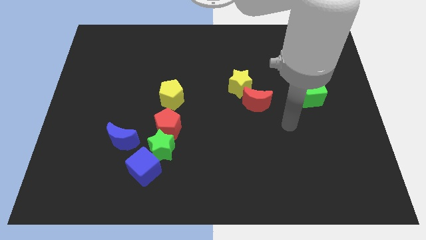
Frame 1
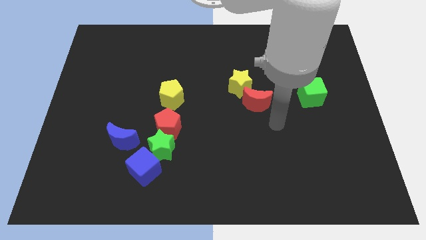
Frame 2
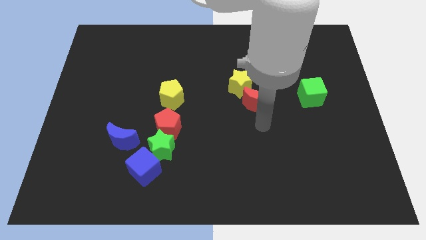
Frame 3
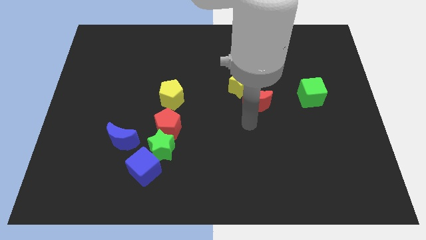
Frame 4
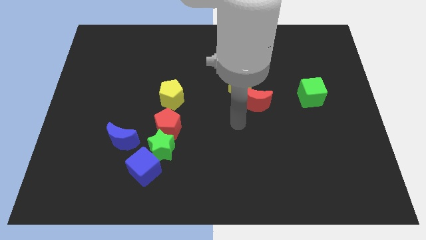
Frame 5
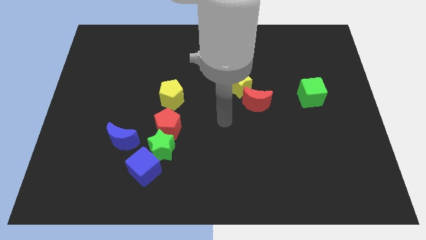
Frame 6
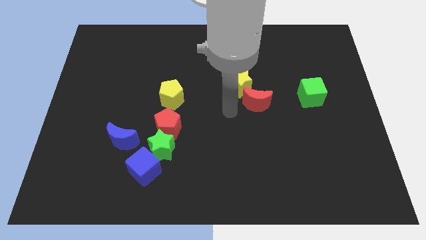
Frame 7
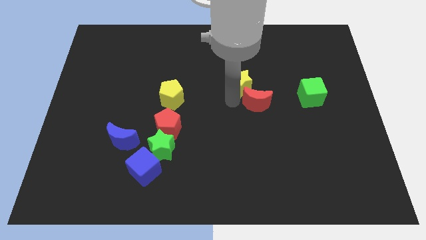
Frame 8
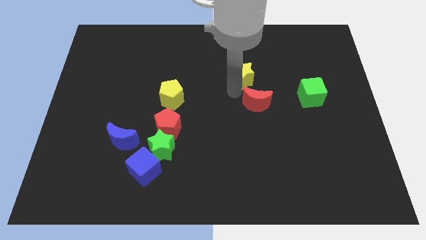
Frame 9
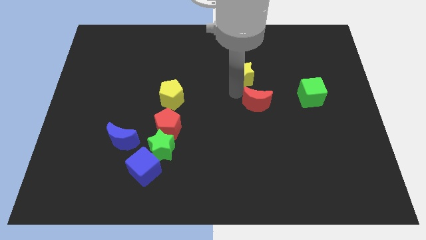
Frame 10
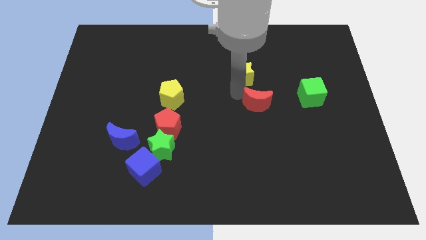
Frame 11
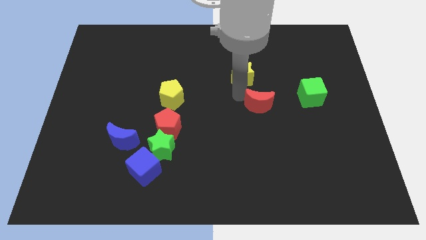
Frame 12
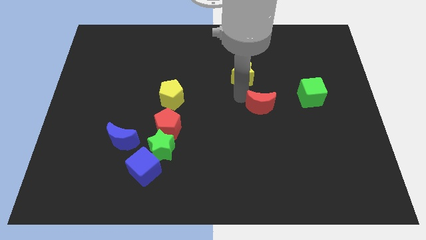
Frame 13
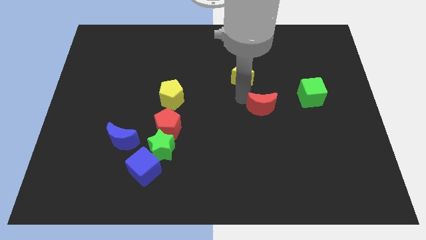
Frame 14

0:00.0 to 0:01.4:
move the red moon away from the yellow star

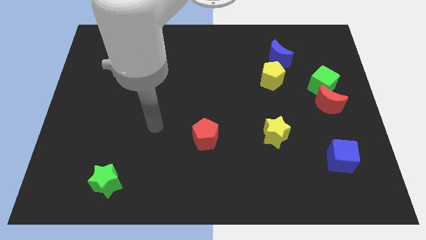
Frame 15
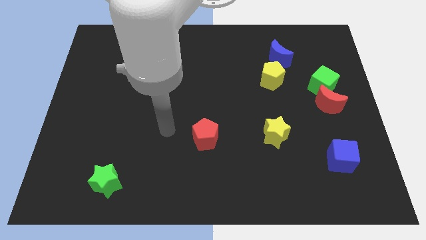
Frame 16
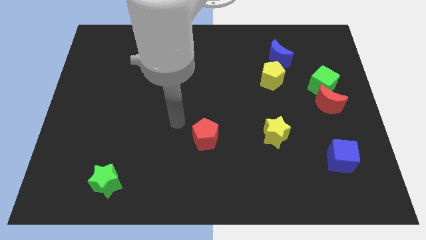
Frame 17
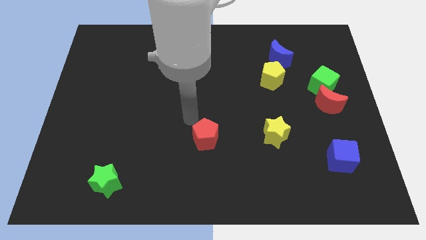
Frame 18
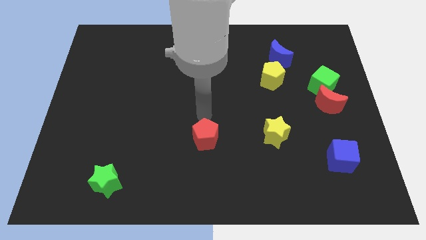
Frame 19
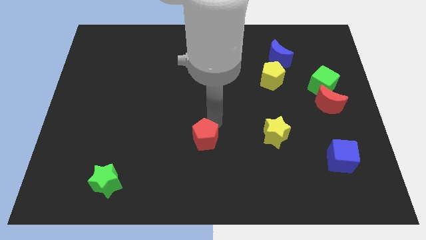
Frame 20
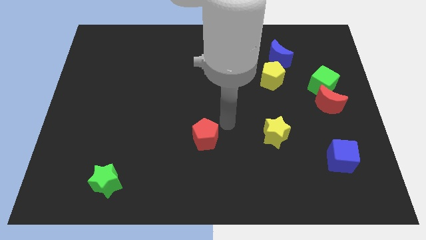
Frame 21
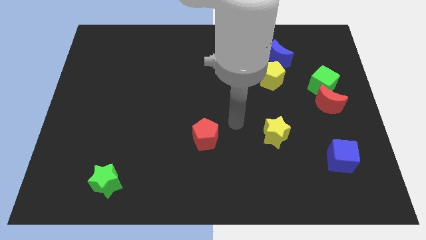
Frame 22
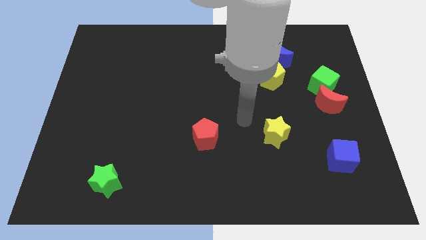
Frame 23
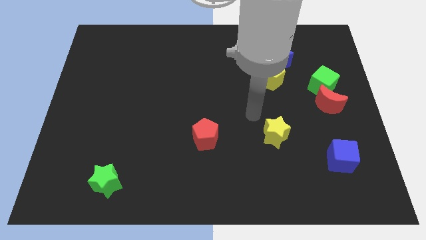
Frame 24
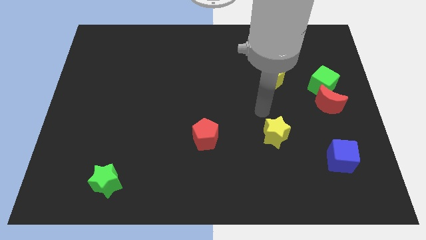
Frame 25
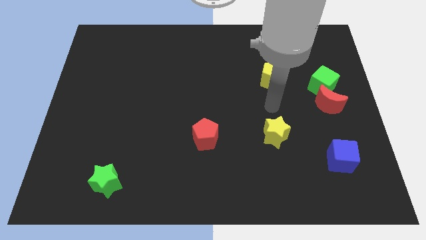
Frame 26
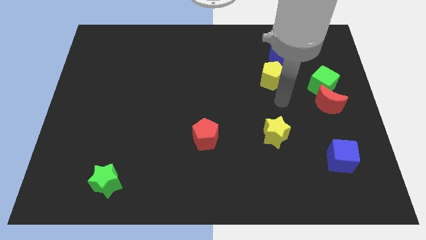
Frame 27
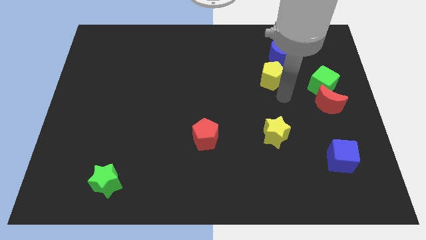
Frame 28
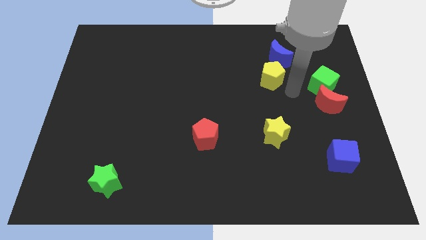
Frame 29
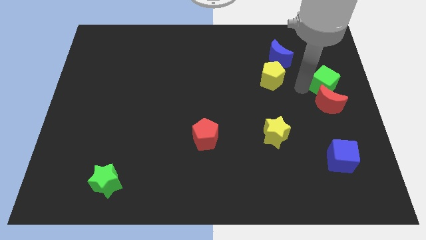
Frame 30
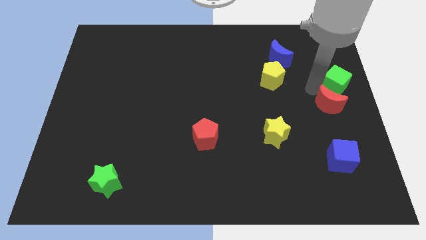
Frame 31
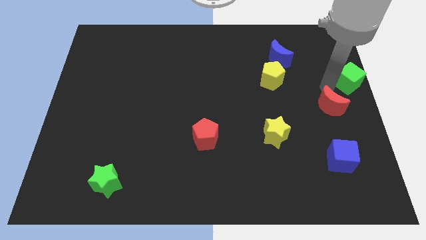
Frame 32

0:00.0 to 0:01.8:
separate the red moon from the green cube

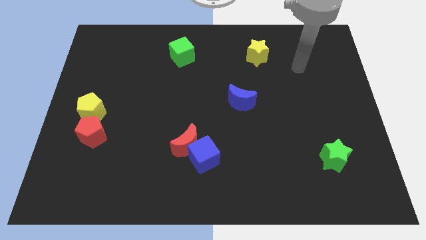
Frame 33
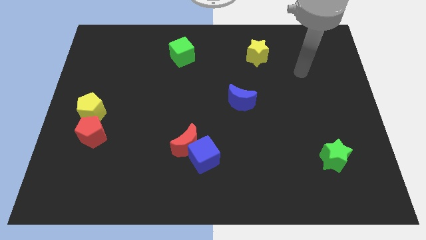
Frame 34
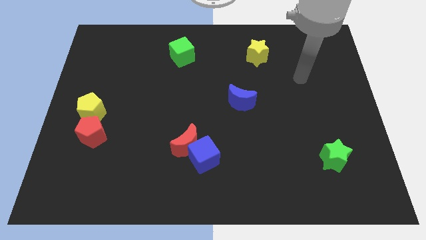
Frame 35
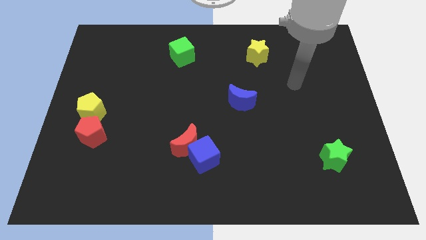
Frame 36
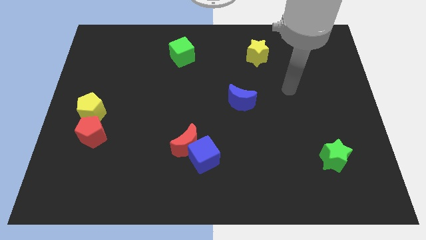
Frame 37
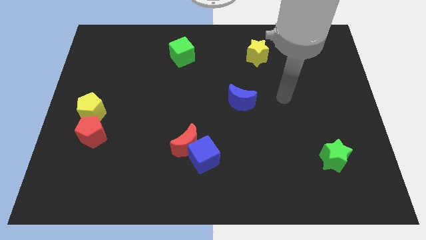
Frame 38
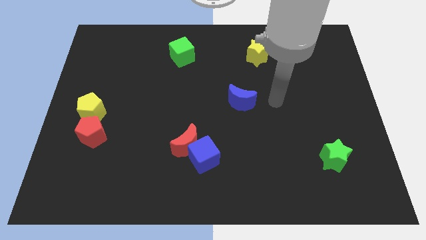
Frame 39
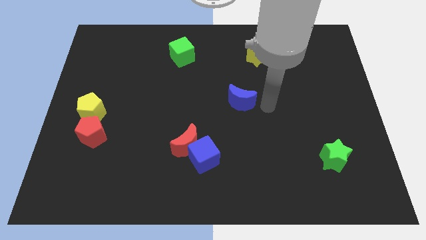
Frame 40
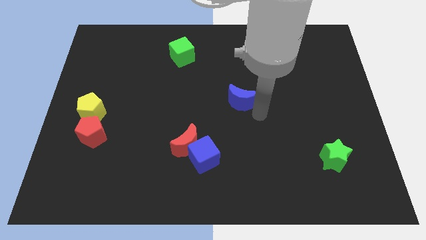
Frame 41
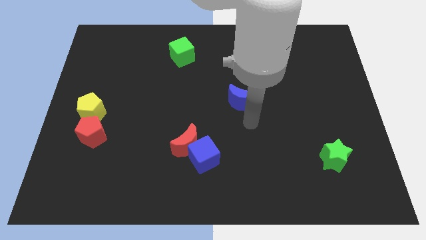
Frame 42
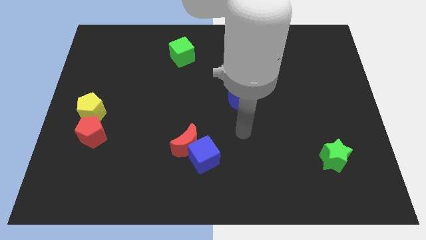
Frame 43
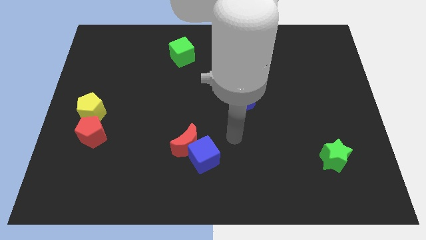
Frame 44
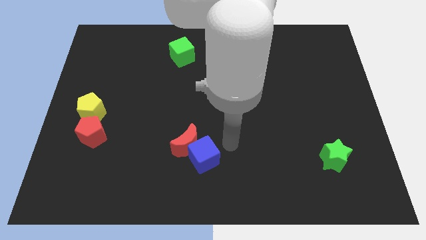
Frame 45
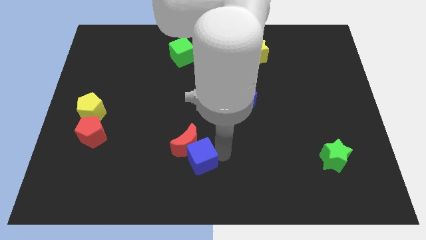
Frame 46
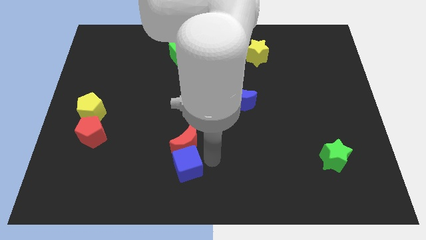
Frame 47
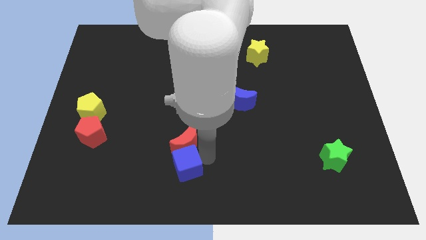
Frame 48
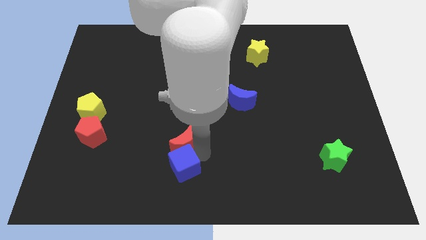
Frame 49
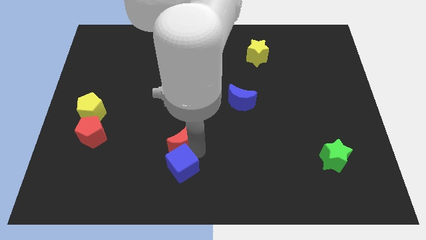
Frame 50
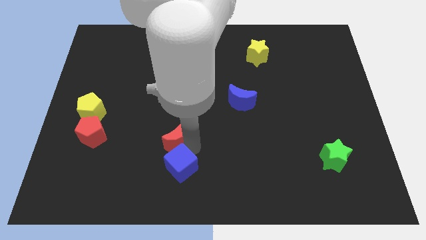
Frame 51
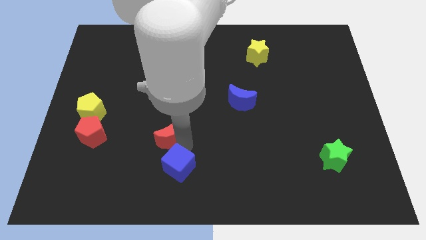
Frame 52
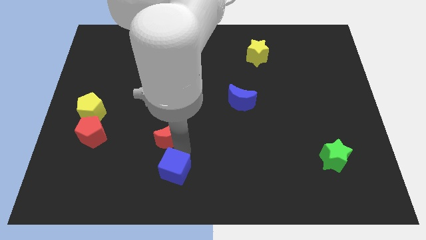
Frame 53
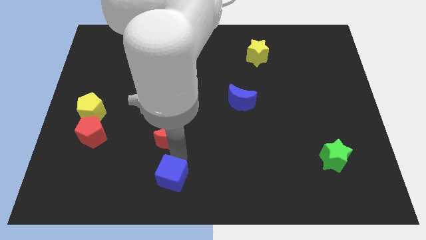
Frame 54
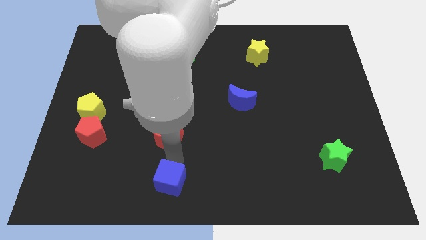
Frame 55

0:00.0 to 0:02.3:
separate the red moon from the blue cube

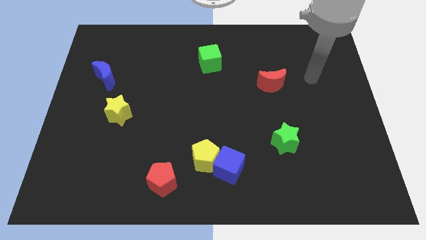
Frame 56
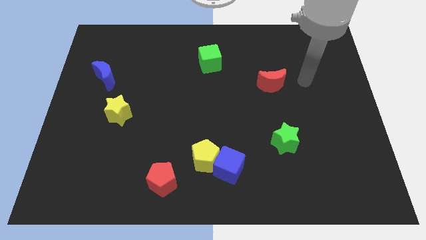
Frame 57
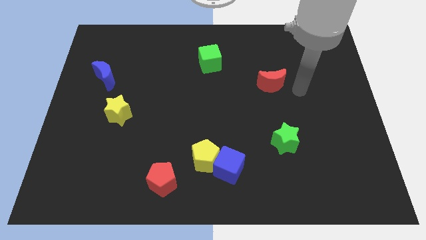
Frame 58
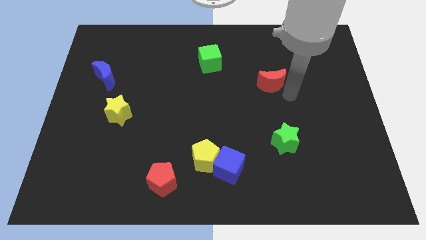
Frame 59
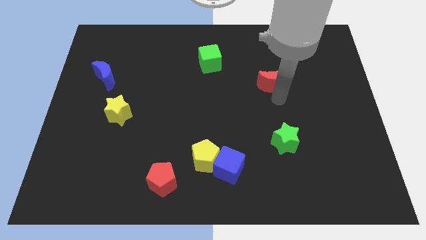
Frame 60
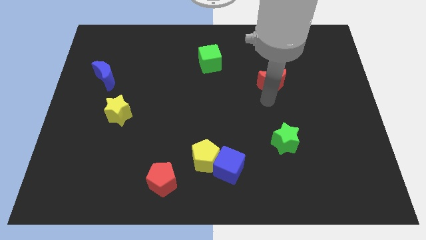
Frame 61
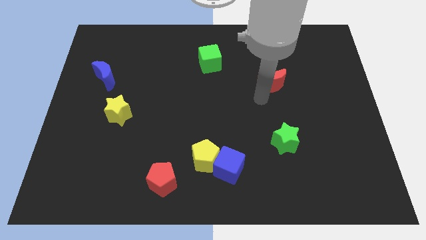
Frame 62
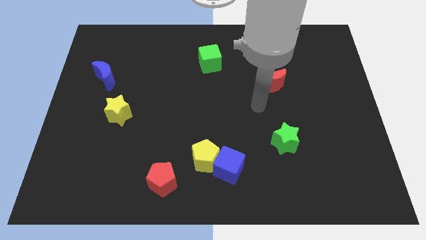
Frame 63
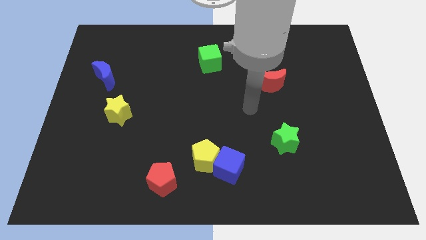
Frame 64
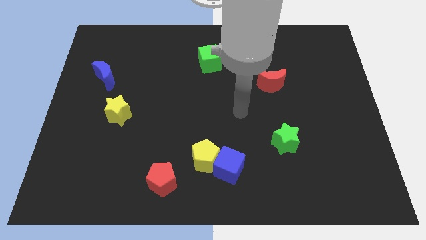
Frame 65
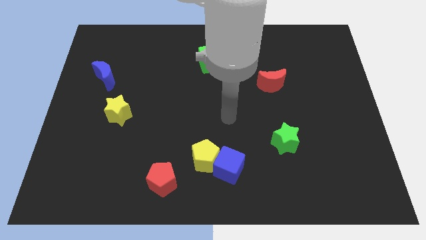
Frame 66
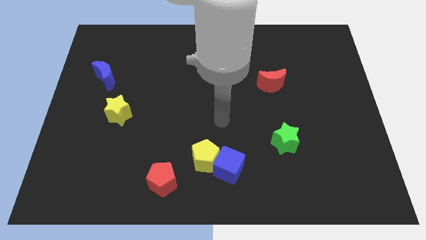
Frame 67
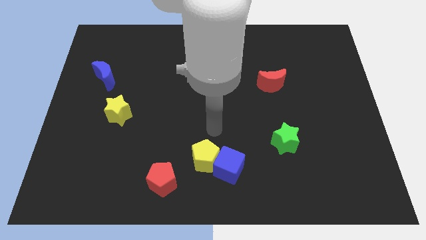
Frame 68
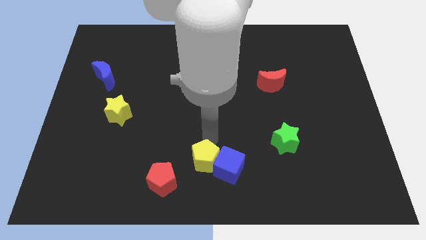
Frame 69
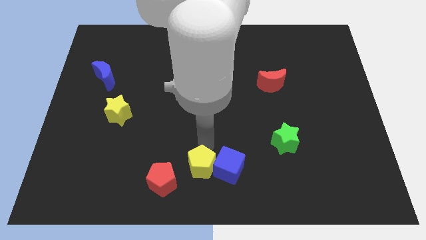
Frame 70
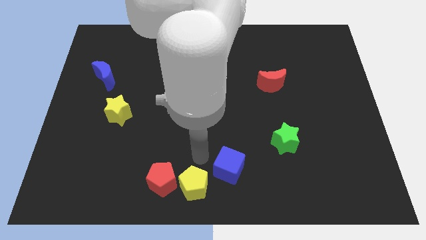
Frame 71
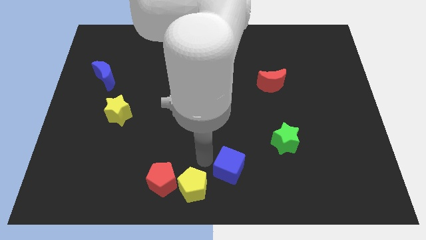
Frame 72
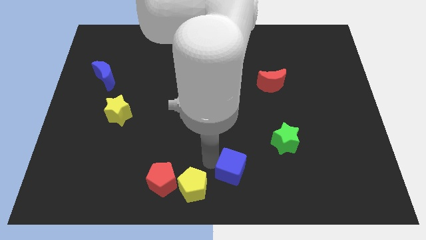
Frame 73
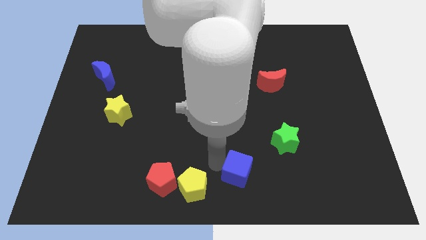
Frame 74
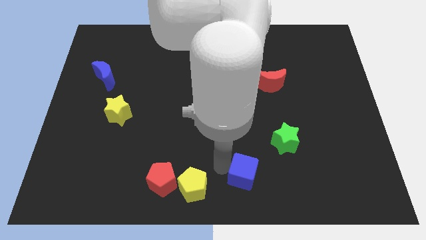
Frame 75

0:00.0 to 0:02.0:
pull the blue cube apart from the yellow pentagon

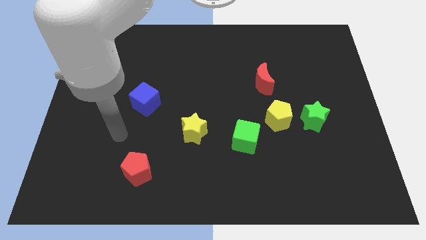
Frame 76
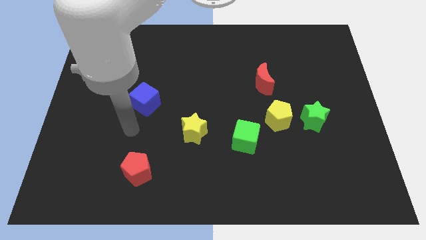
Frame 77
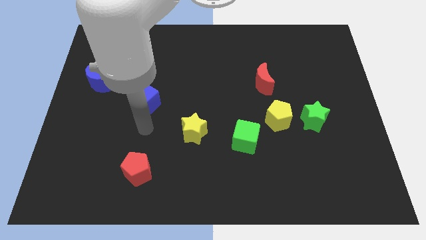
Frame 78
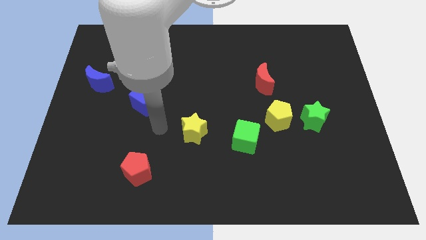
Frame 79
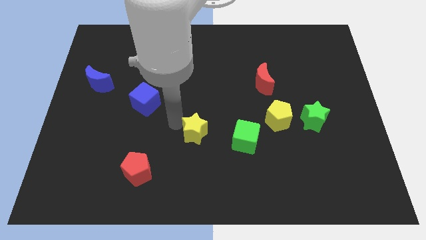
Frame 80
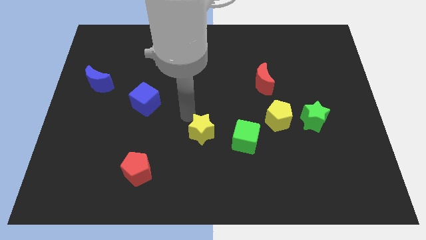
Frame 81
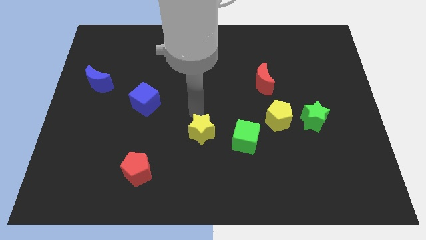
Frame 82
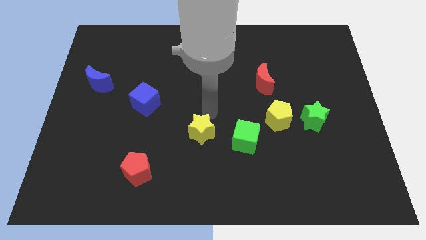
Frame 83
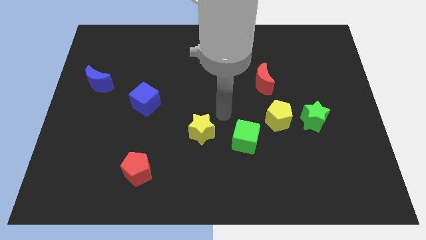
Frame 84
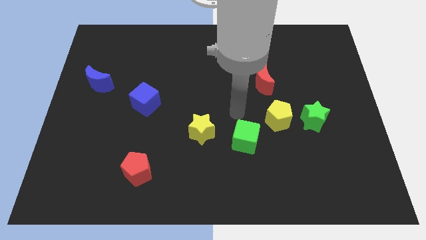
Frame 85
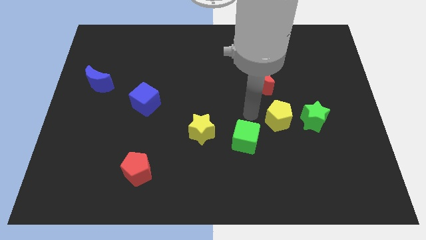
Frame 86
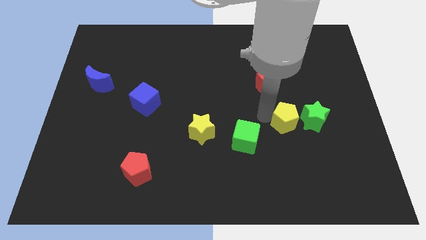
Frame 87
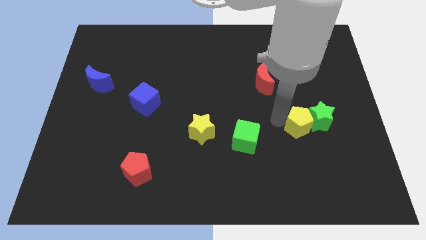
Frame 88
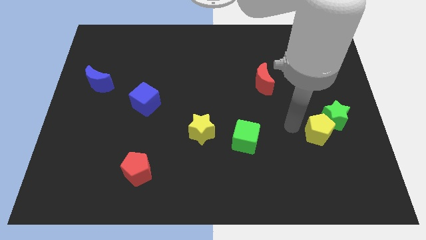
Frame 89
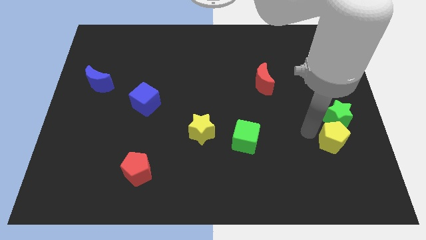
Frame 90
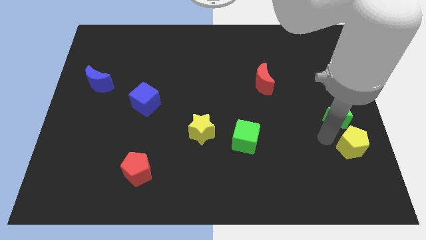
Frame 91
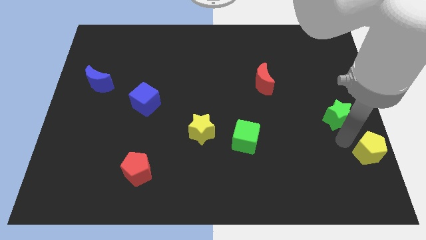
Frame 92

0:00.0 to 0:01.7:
move the green star away from the yellow pentagon

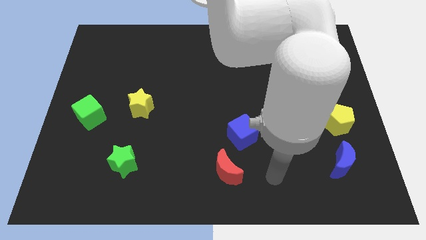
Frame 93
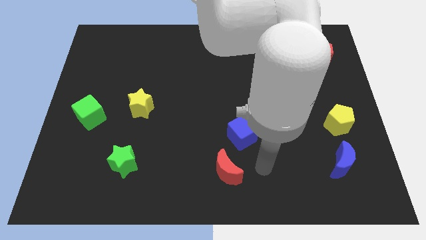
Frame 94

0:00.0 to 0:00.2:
move the red moon away from the blue cube
